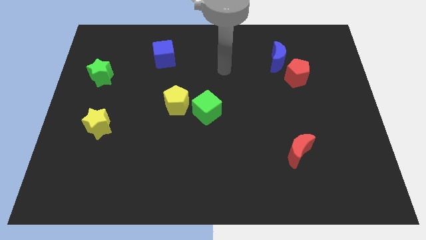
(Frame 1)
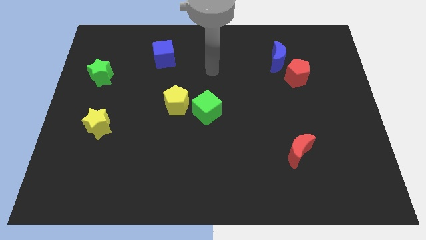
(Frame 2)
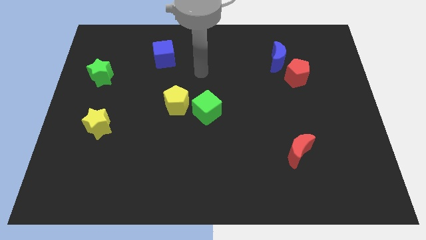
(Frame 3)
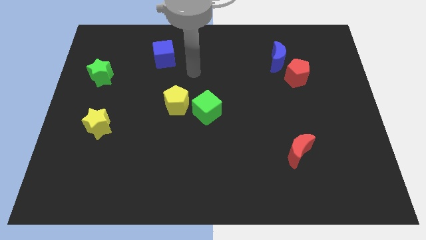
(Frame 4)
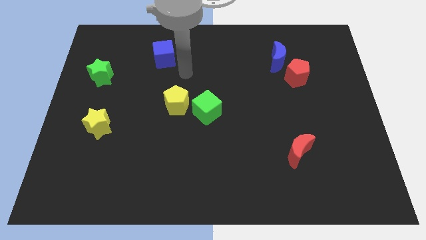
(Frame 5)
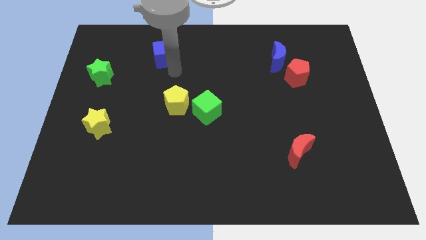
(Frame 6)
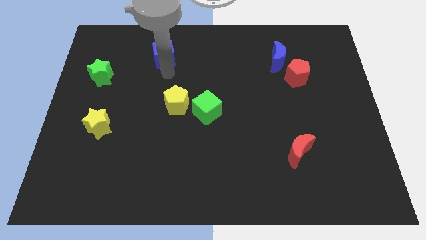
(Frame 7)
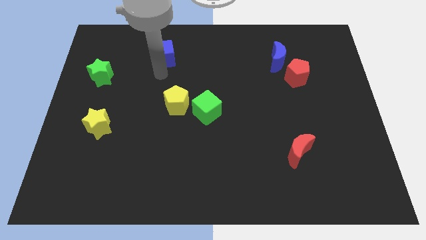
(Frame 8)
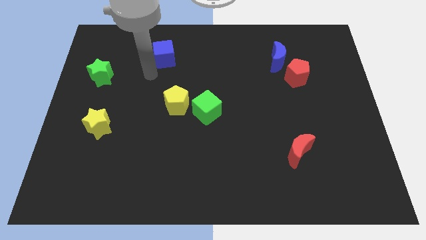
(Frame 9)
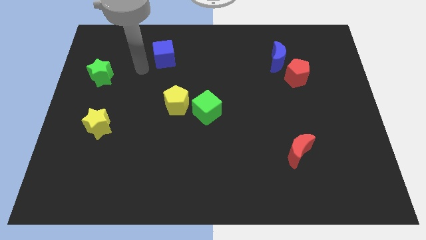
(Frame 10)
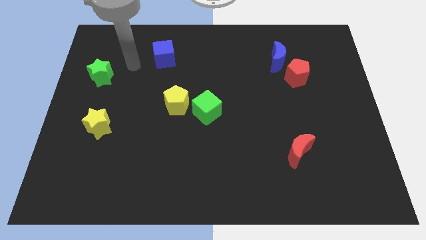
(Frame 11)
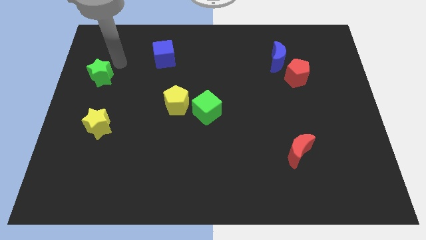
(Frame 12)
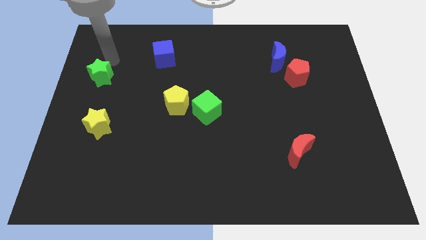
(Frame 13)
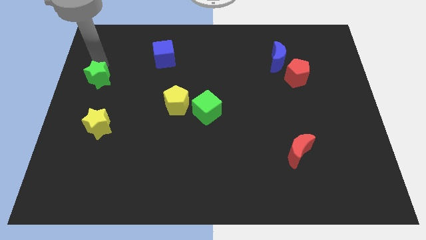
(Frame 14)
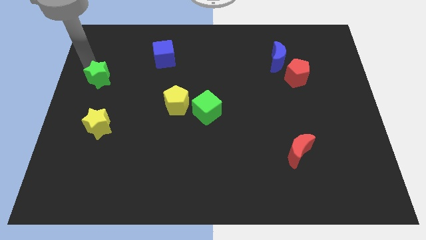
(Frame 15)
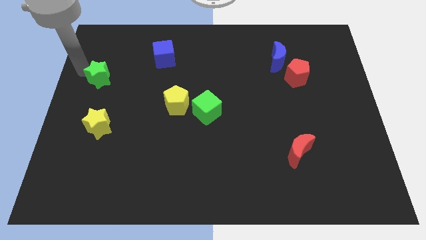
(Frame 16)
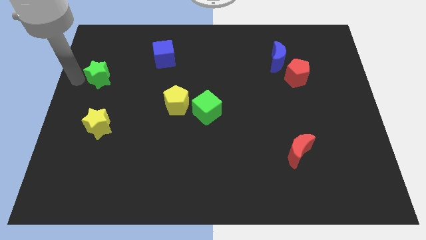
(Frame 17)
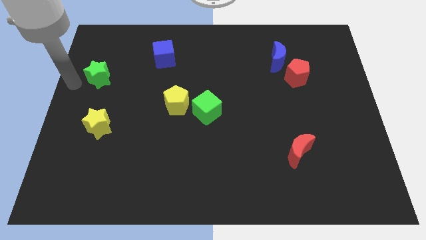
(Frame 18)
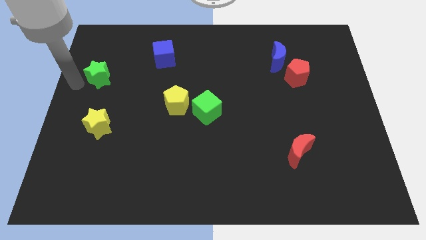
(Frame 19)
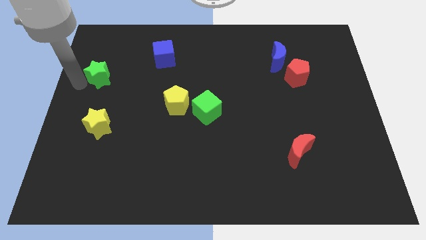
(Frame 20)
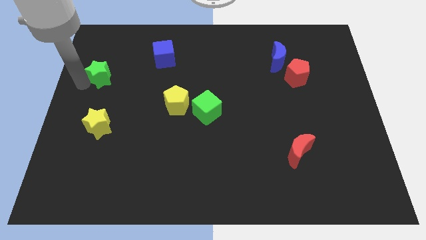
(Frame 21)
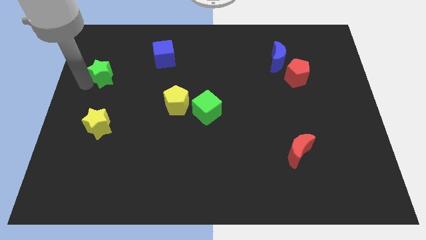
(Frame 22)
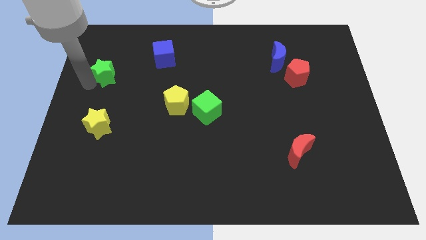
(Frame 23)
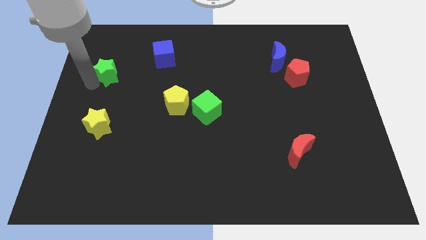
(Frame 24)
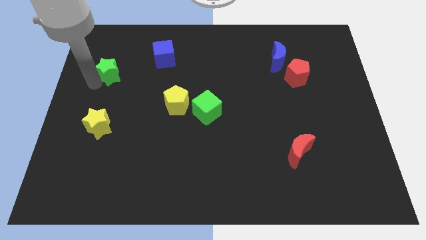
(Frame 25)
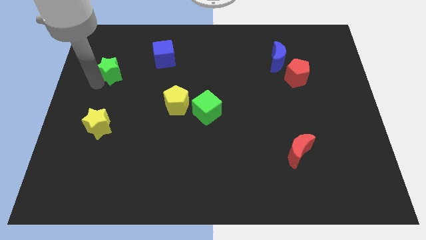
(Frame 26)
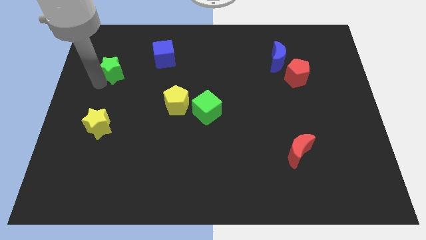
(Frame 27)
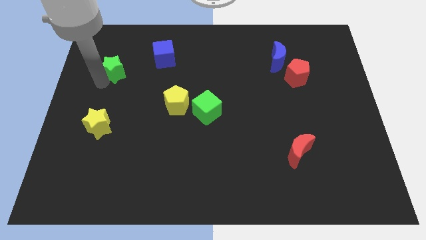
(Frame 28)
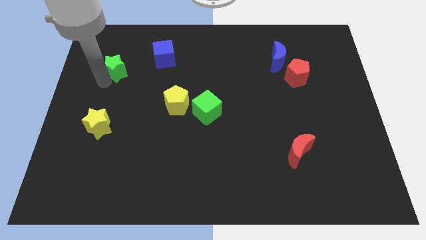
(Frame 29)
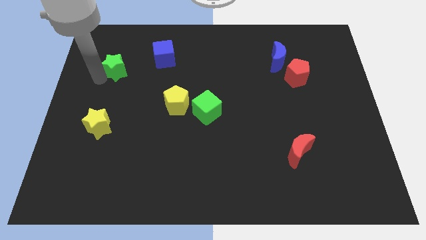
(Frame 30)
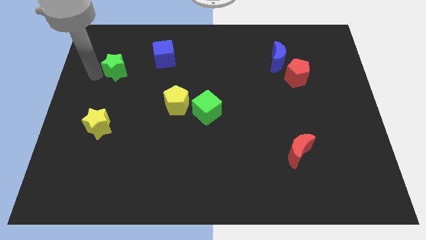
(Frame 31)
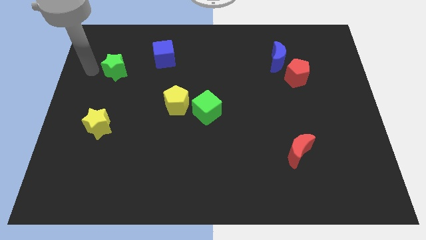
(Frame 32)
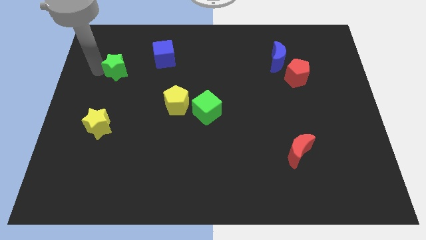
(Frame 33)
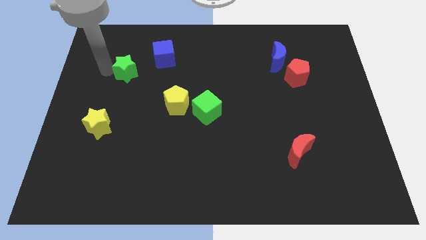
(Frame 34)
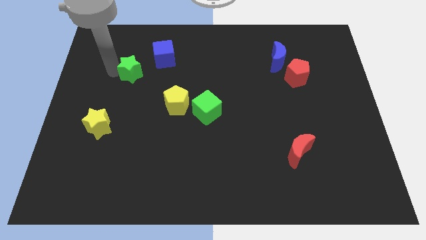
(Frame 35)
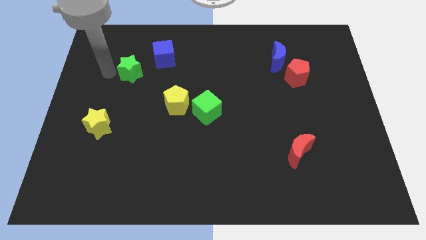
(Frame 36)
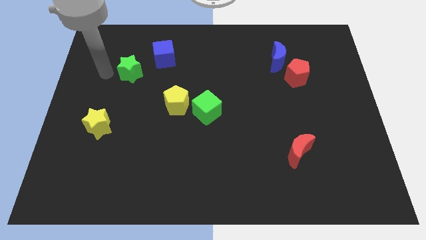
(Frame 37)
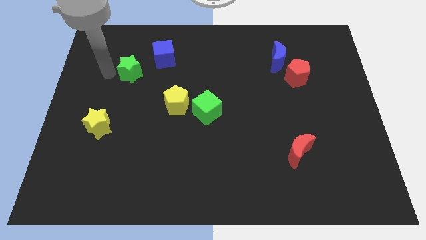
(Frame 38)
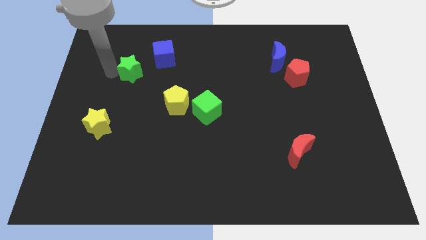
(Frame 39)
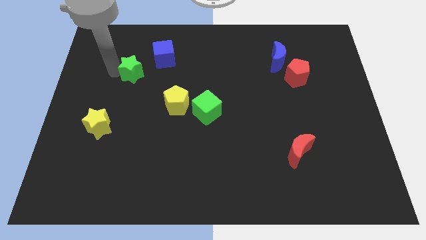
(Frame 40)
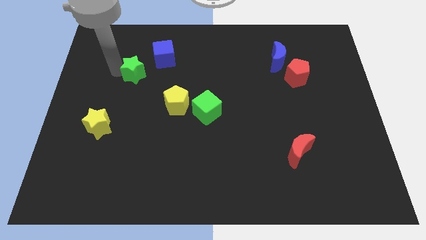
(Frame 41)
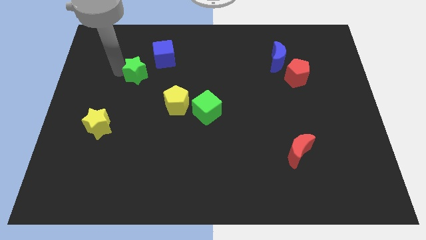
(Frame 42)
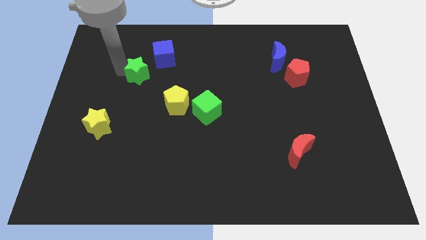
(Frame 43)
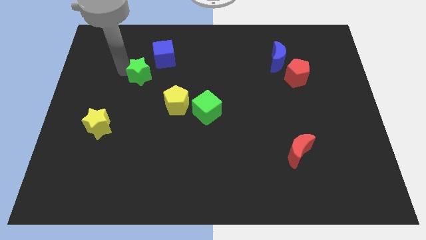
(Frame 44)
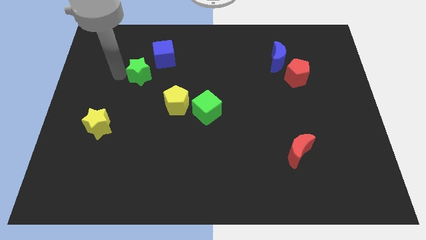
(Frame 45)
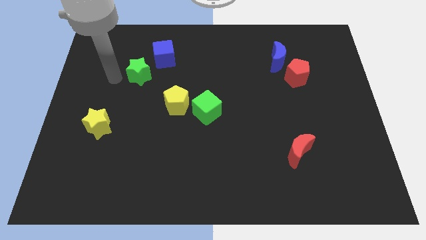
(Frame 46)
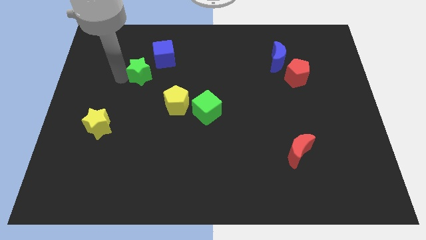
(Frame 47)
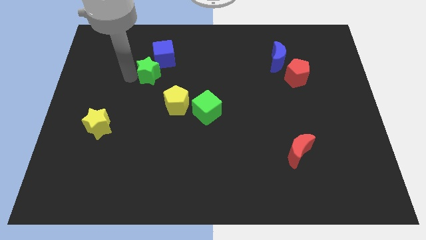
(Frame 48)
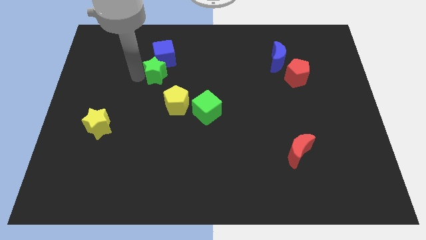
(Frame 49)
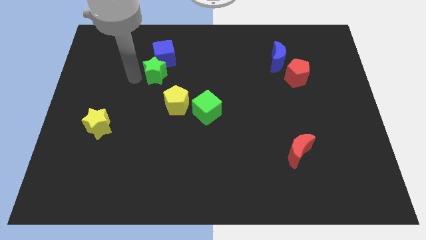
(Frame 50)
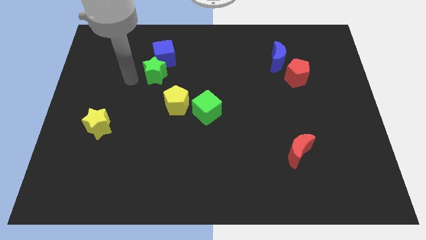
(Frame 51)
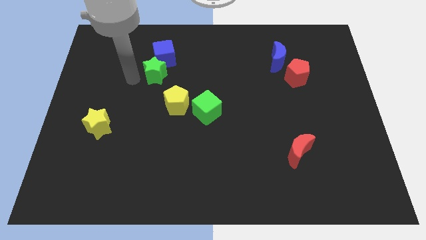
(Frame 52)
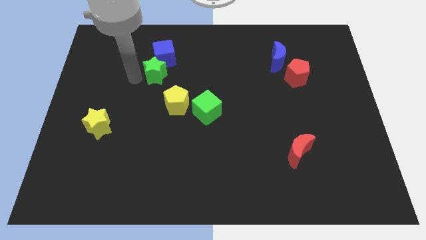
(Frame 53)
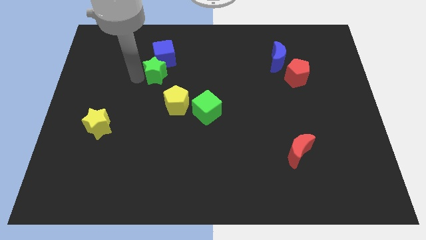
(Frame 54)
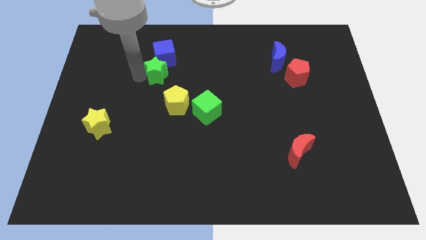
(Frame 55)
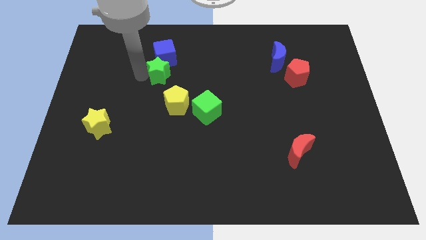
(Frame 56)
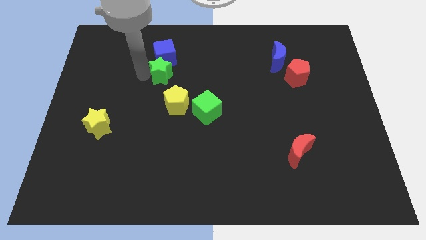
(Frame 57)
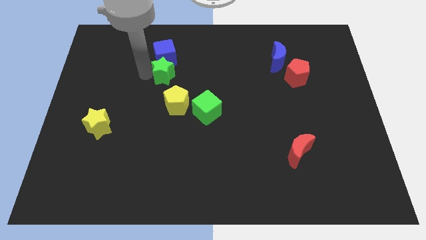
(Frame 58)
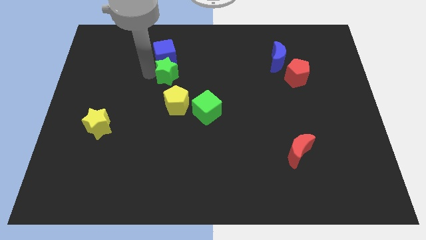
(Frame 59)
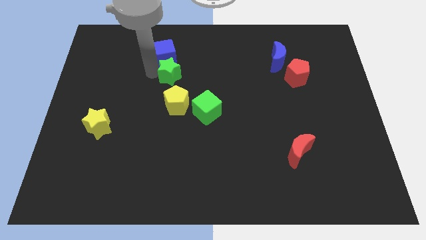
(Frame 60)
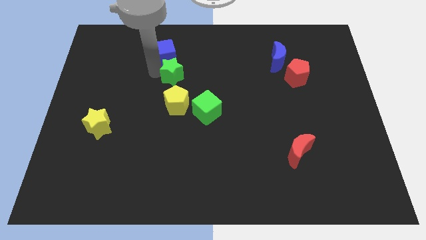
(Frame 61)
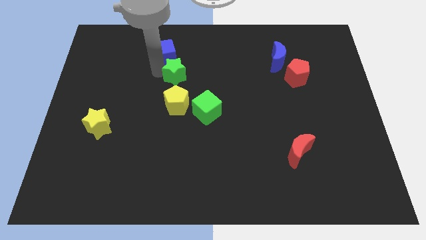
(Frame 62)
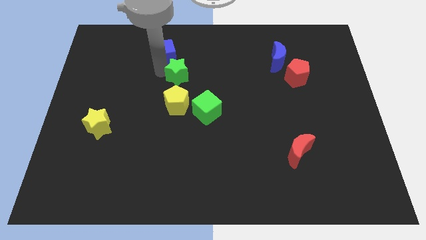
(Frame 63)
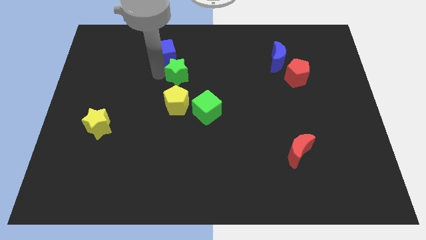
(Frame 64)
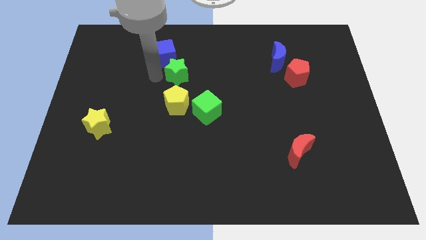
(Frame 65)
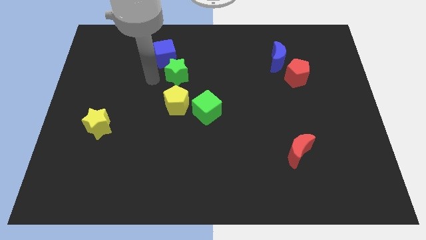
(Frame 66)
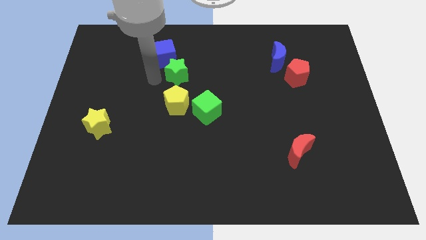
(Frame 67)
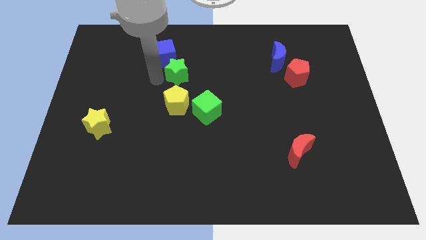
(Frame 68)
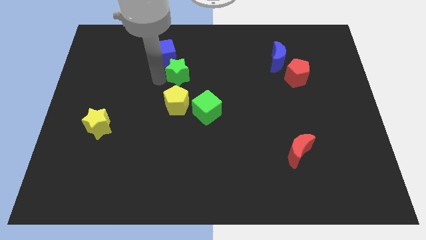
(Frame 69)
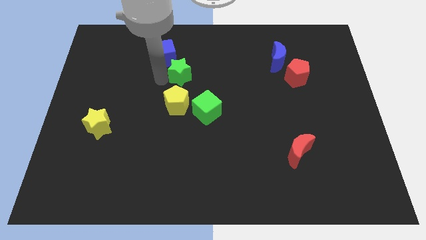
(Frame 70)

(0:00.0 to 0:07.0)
slide the green star to the right

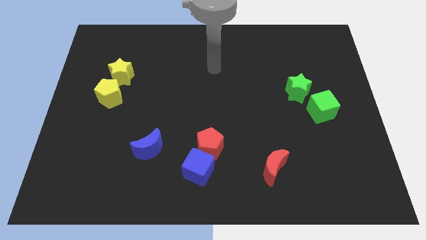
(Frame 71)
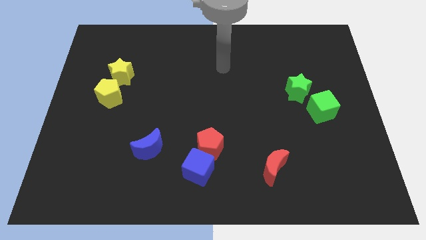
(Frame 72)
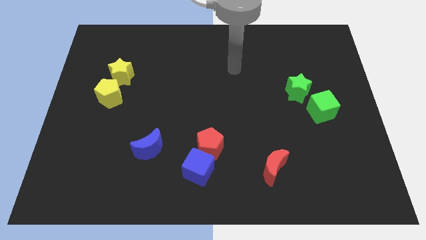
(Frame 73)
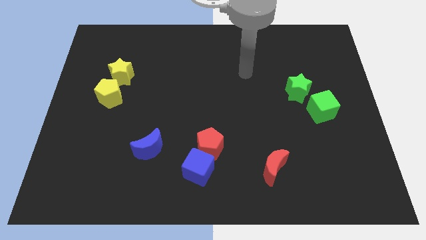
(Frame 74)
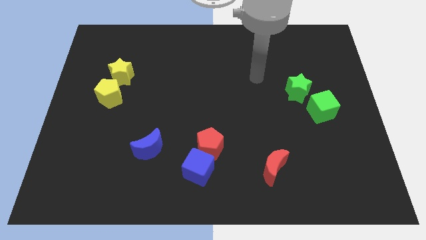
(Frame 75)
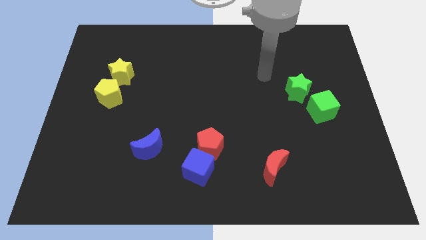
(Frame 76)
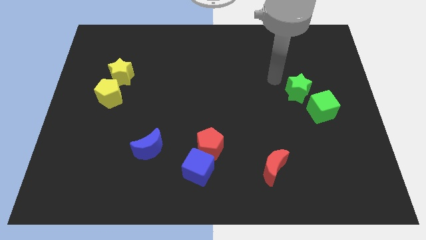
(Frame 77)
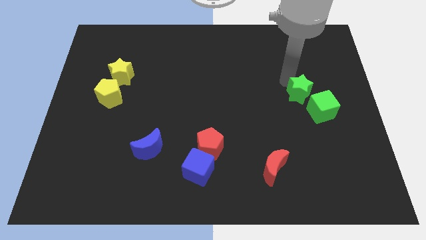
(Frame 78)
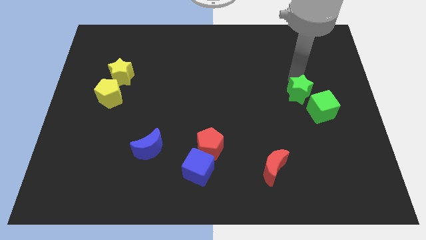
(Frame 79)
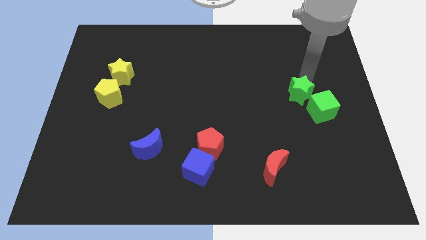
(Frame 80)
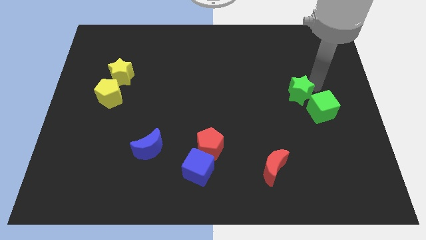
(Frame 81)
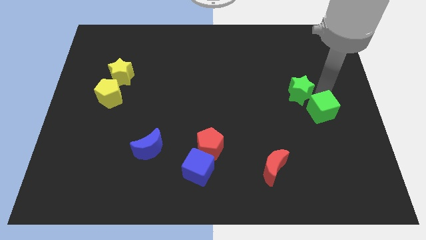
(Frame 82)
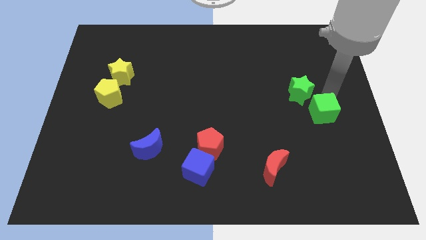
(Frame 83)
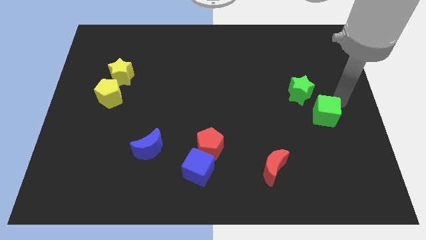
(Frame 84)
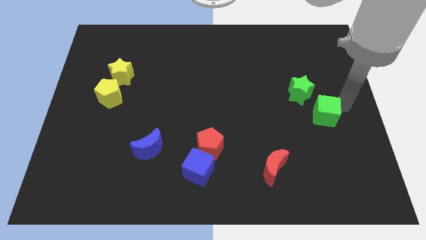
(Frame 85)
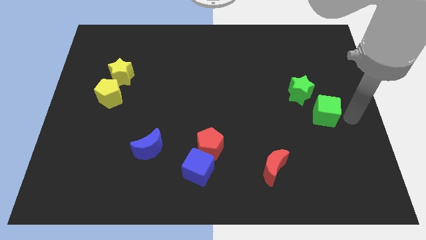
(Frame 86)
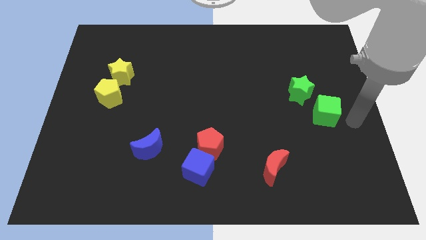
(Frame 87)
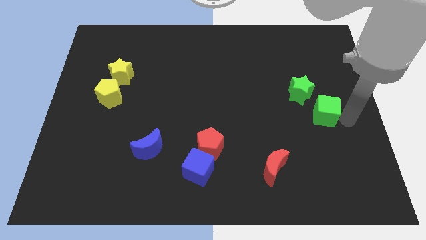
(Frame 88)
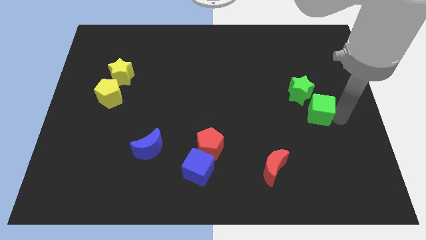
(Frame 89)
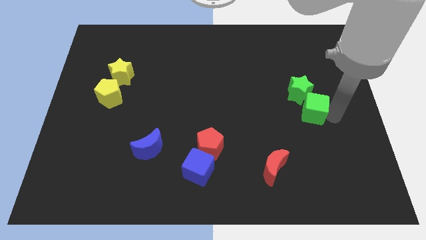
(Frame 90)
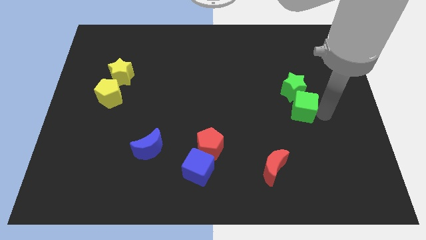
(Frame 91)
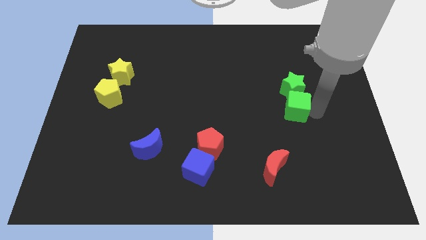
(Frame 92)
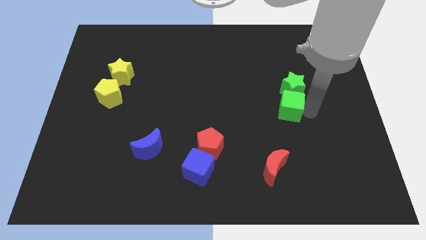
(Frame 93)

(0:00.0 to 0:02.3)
slide the green cube somewhat to the left
